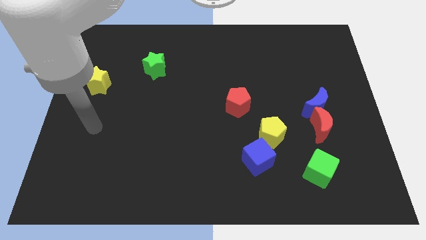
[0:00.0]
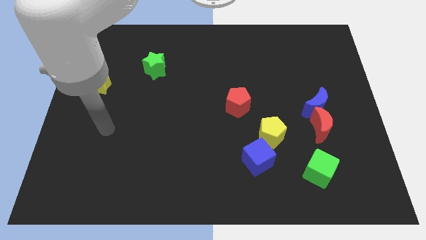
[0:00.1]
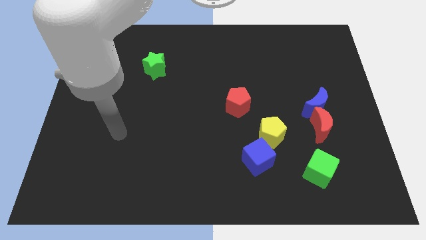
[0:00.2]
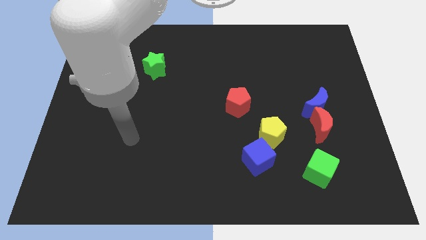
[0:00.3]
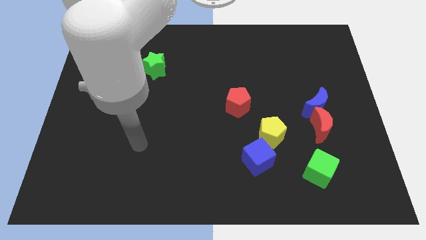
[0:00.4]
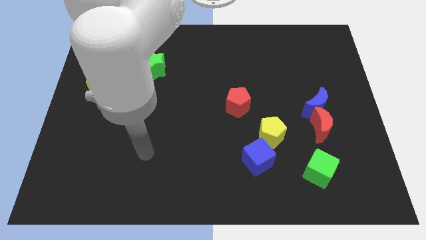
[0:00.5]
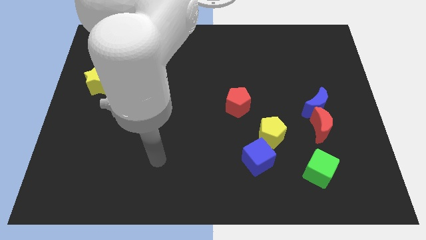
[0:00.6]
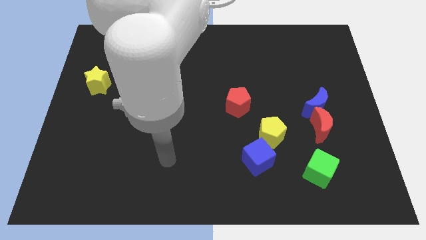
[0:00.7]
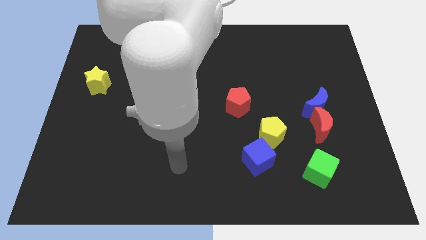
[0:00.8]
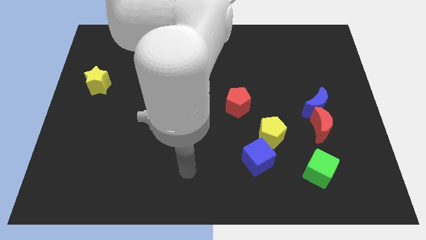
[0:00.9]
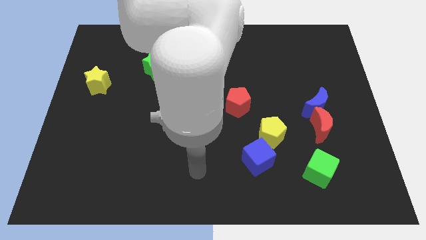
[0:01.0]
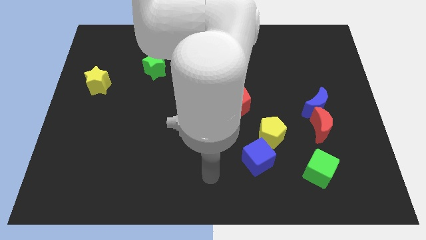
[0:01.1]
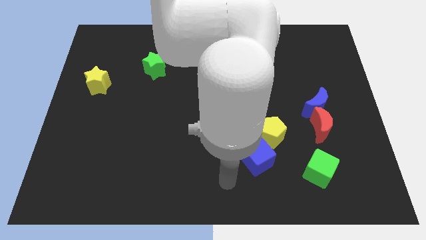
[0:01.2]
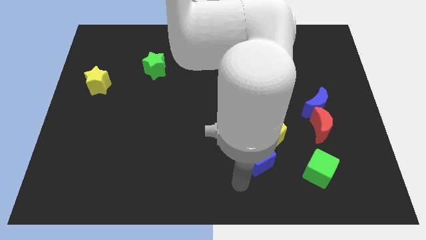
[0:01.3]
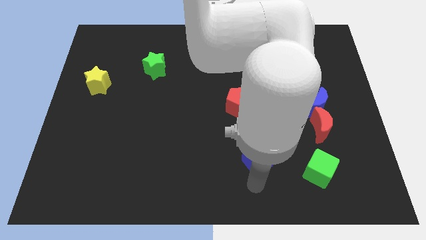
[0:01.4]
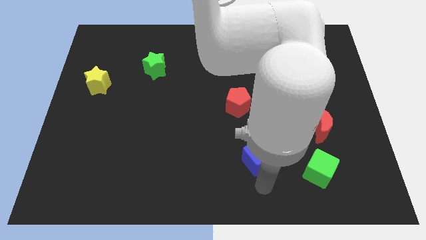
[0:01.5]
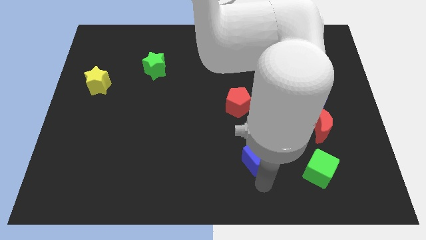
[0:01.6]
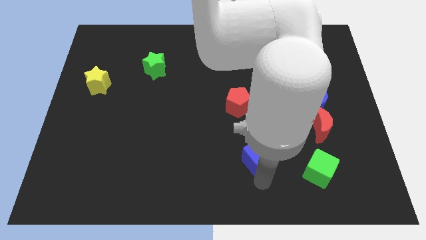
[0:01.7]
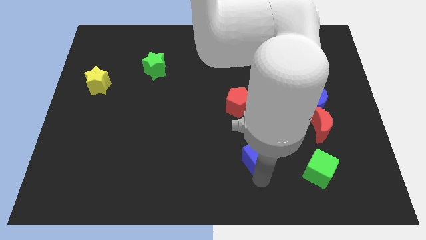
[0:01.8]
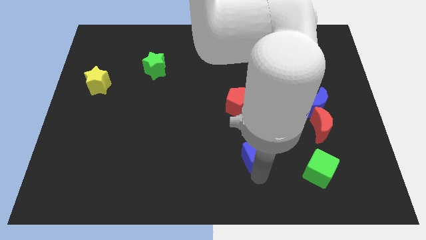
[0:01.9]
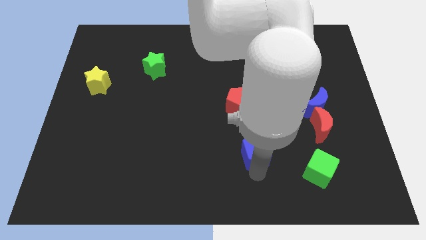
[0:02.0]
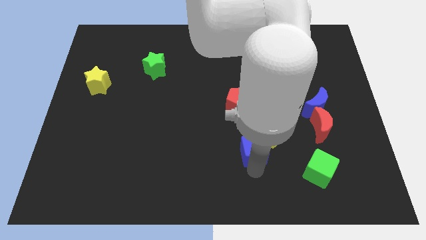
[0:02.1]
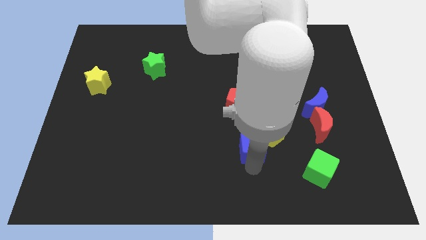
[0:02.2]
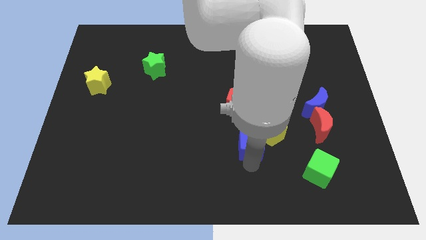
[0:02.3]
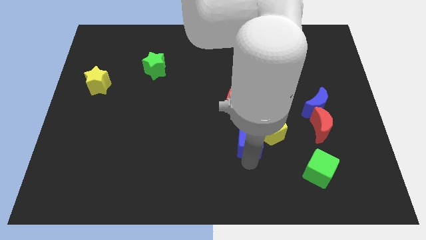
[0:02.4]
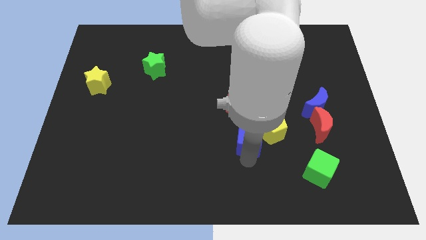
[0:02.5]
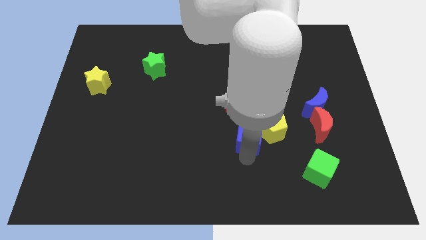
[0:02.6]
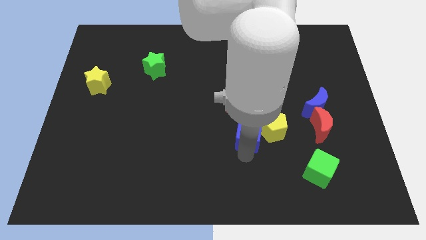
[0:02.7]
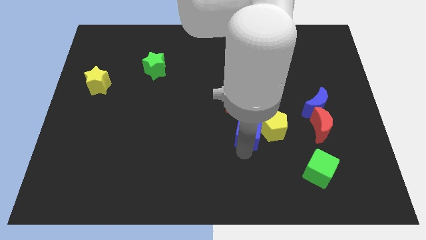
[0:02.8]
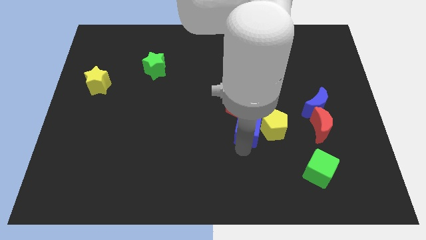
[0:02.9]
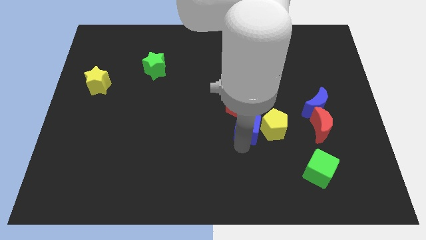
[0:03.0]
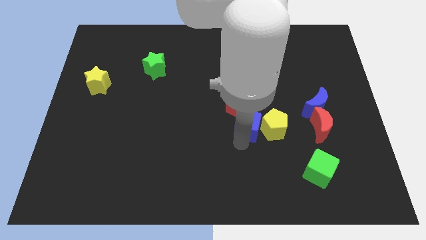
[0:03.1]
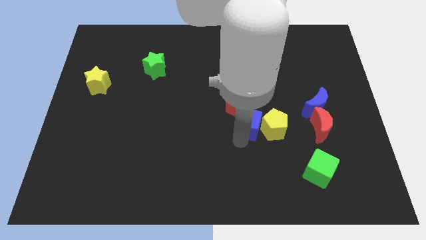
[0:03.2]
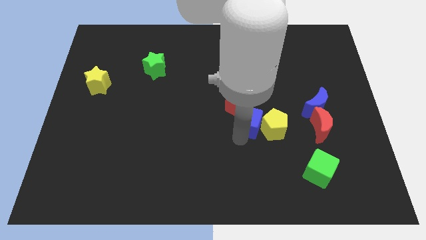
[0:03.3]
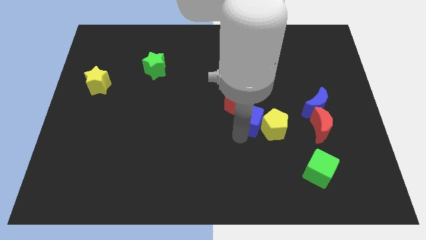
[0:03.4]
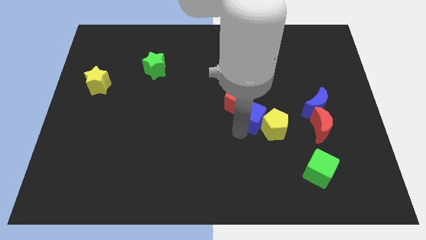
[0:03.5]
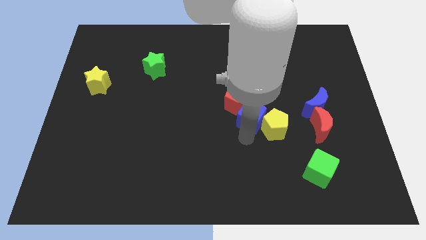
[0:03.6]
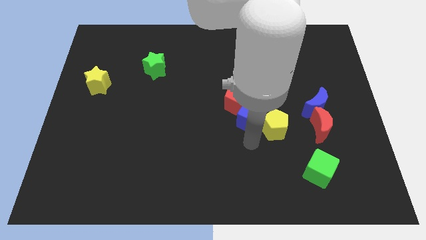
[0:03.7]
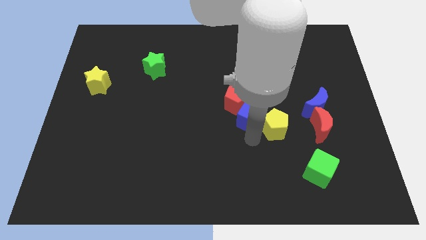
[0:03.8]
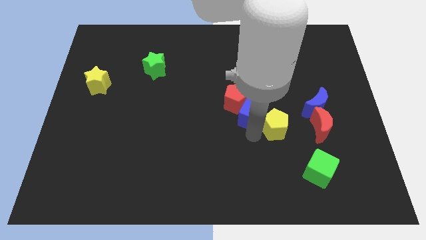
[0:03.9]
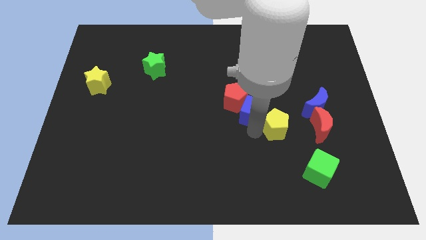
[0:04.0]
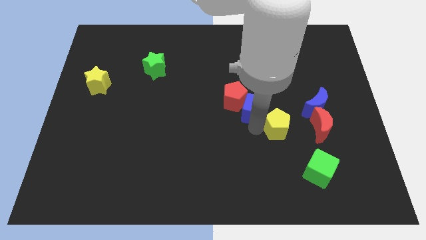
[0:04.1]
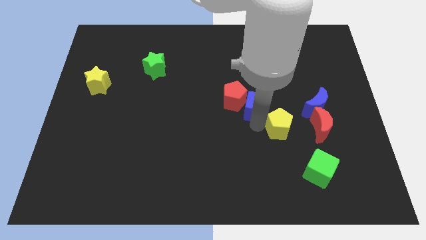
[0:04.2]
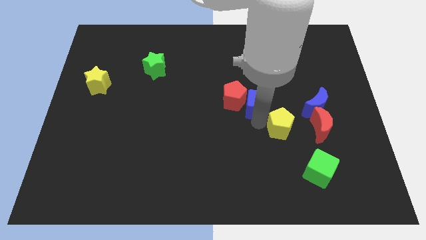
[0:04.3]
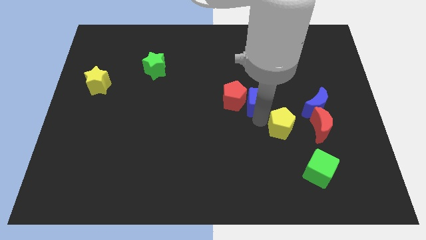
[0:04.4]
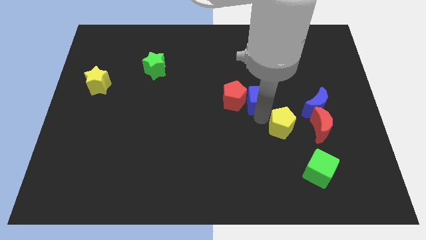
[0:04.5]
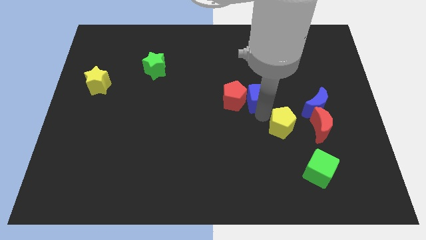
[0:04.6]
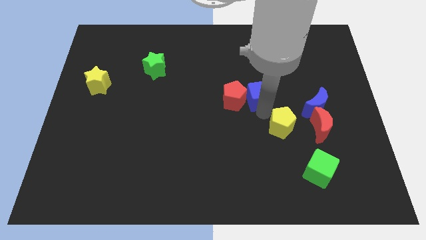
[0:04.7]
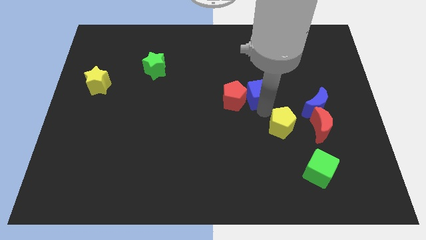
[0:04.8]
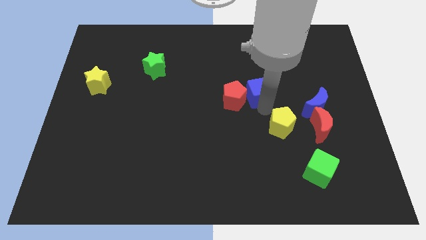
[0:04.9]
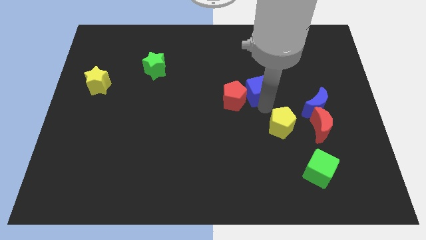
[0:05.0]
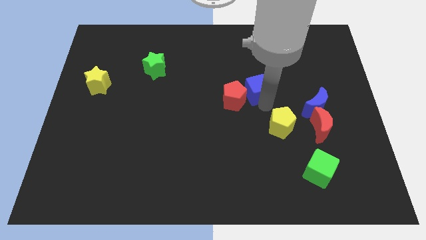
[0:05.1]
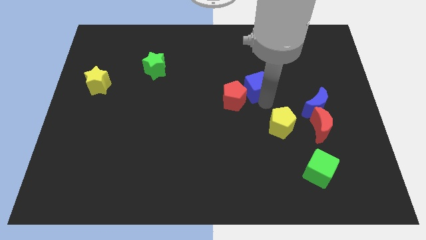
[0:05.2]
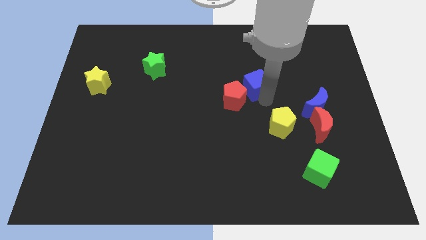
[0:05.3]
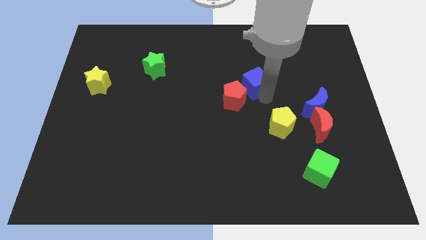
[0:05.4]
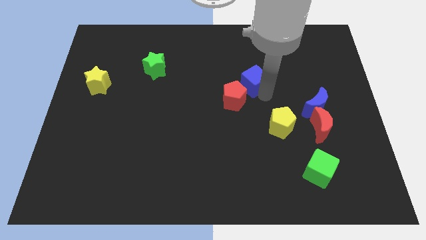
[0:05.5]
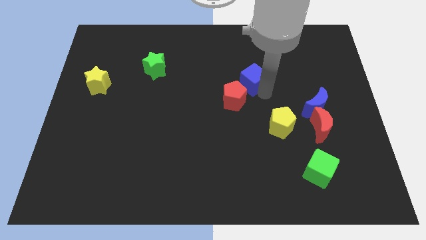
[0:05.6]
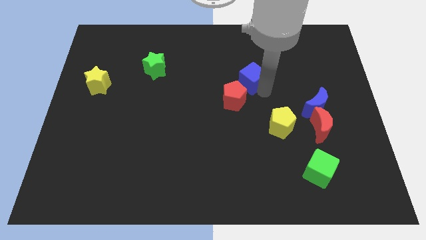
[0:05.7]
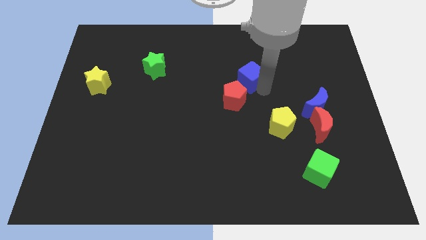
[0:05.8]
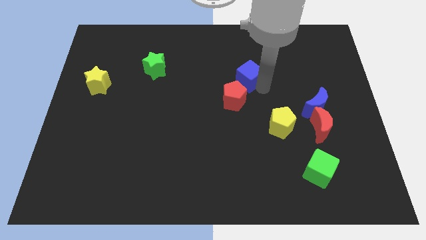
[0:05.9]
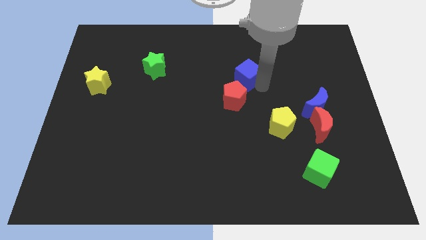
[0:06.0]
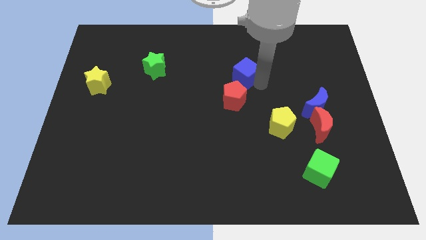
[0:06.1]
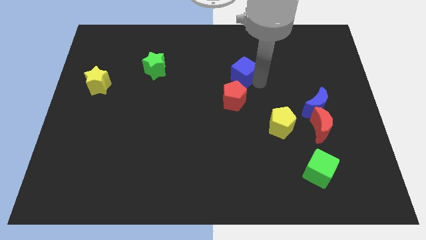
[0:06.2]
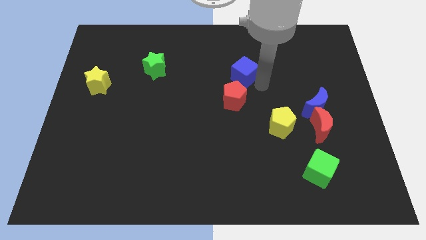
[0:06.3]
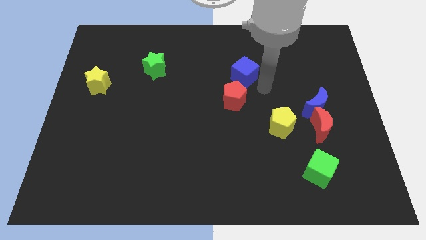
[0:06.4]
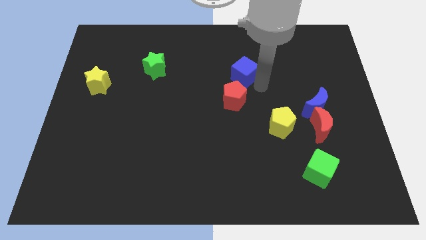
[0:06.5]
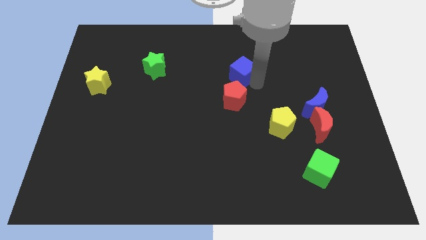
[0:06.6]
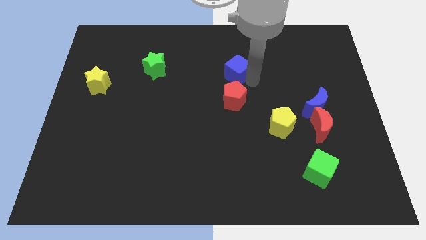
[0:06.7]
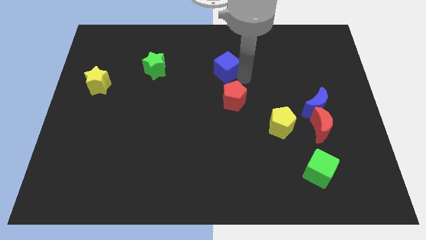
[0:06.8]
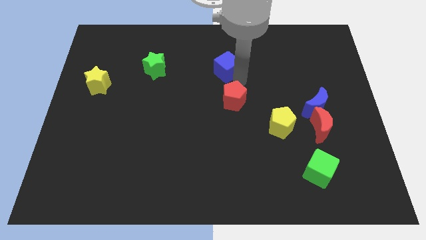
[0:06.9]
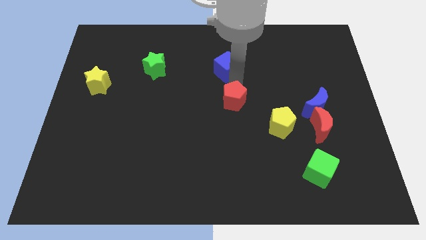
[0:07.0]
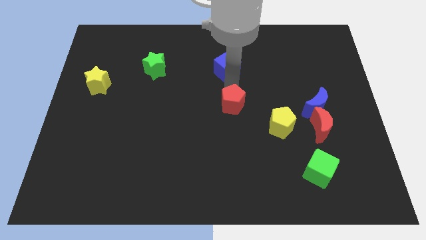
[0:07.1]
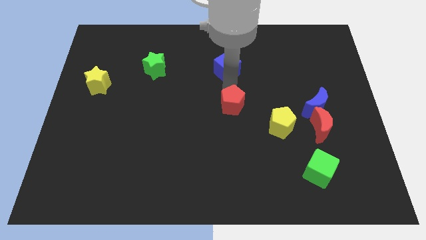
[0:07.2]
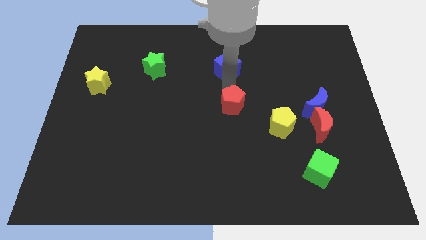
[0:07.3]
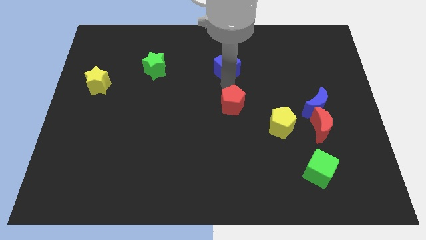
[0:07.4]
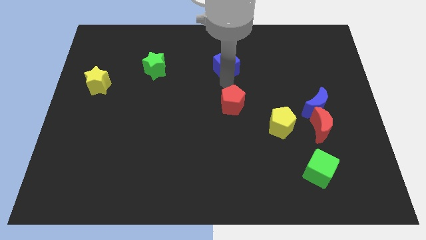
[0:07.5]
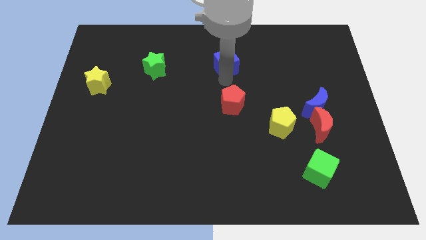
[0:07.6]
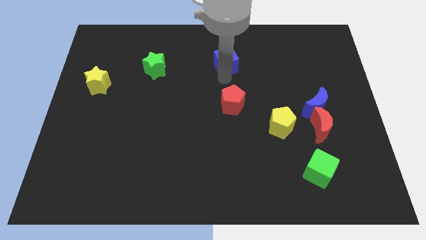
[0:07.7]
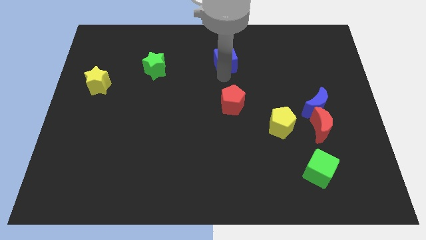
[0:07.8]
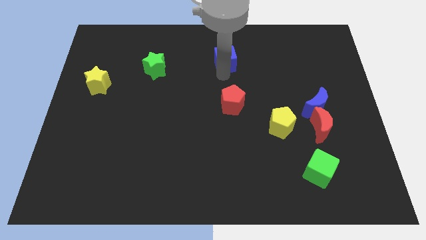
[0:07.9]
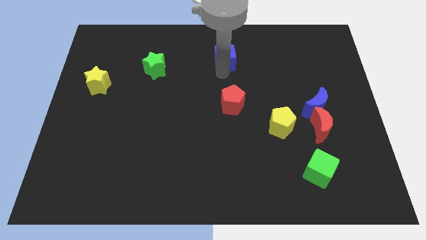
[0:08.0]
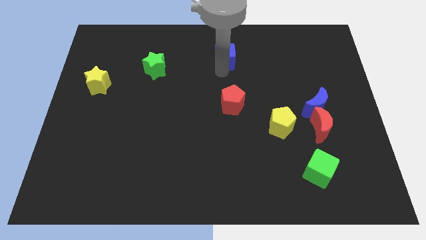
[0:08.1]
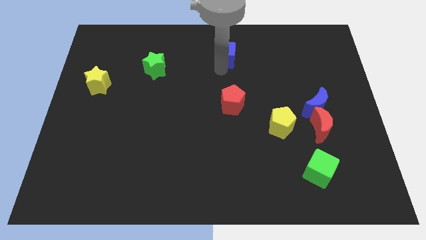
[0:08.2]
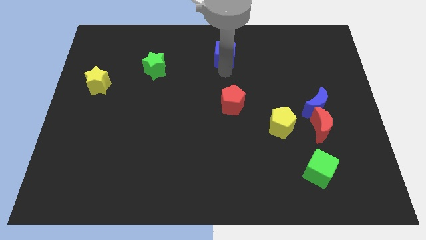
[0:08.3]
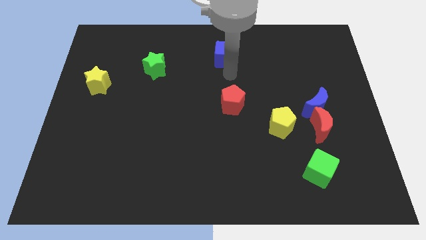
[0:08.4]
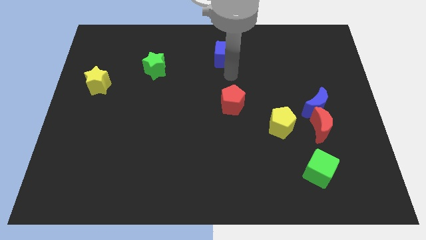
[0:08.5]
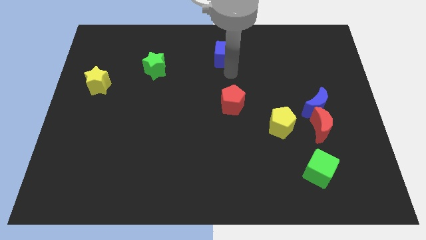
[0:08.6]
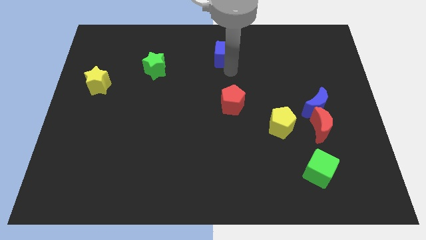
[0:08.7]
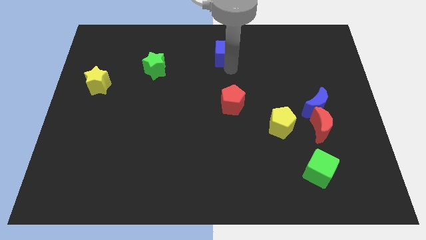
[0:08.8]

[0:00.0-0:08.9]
move the blue cube to the towards your base
